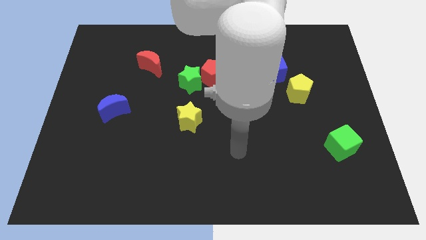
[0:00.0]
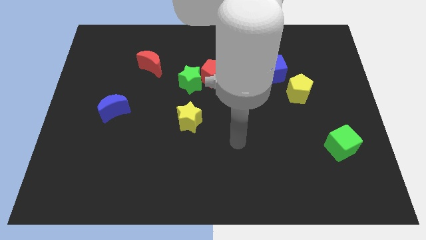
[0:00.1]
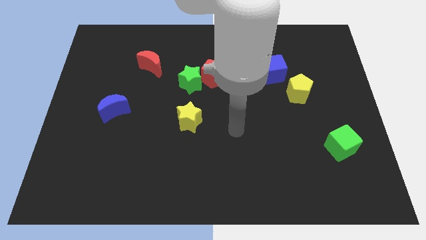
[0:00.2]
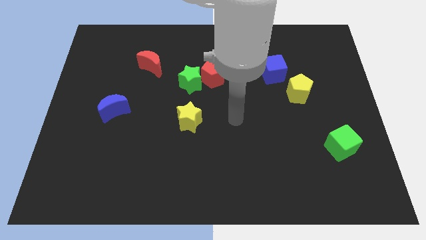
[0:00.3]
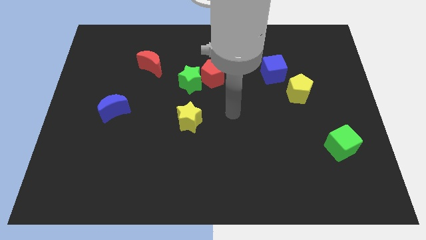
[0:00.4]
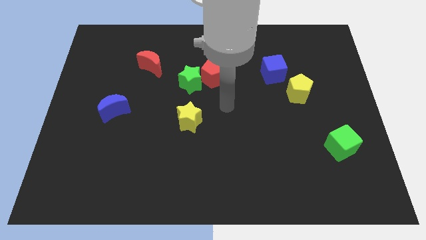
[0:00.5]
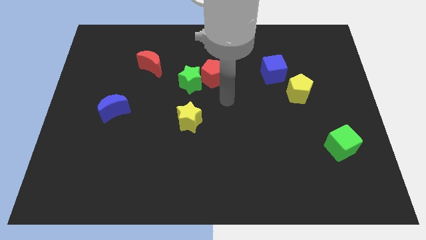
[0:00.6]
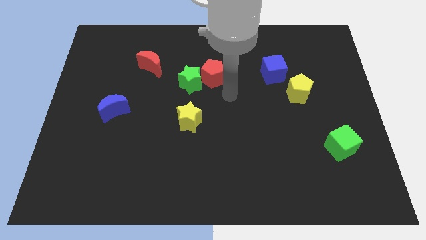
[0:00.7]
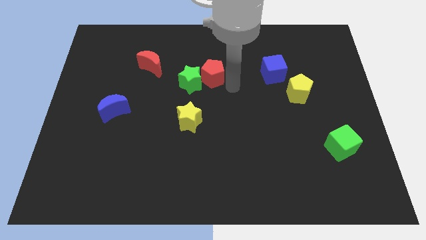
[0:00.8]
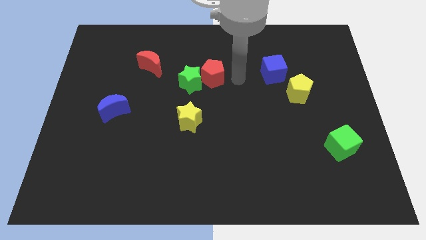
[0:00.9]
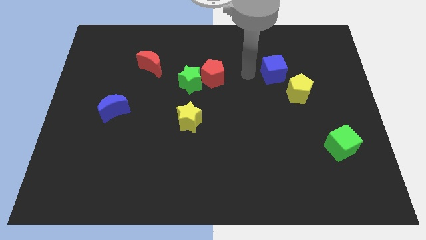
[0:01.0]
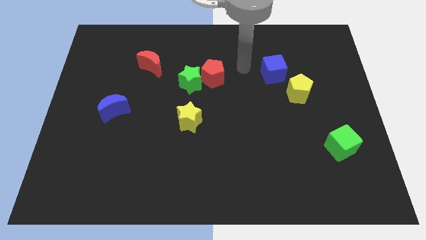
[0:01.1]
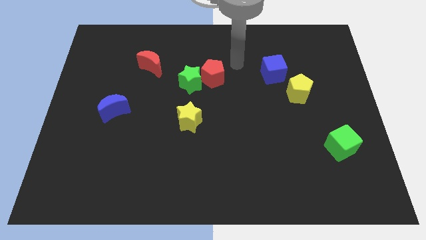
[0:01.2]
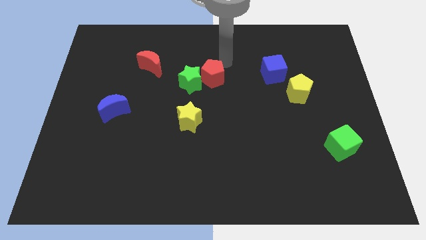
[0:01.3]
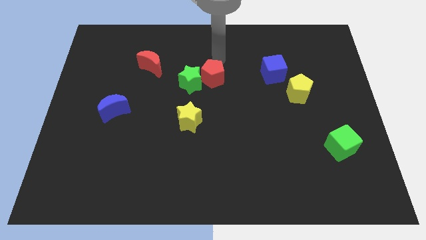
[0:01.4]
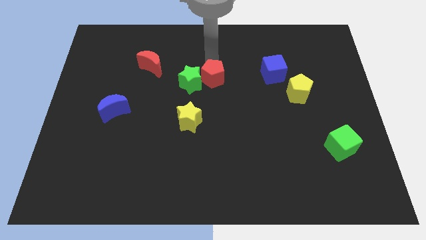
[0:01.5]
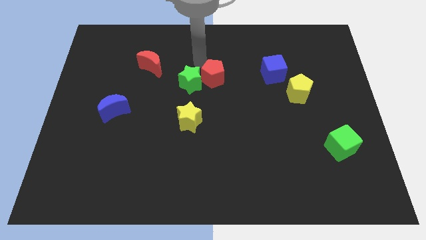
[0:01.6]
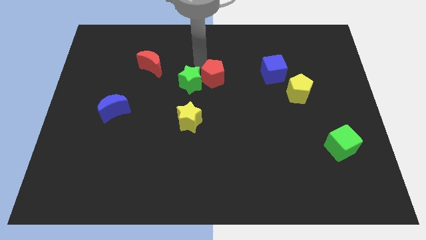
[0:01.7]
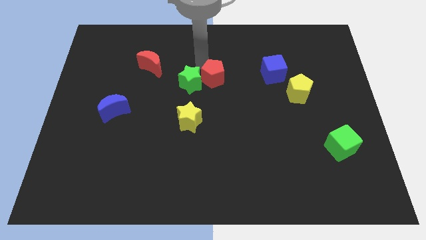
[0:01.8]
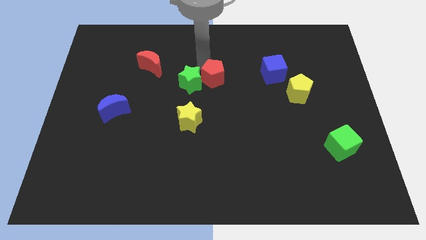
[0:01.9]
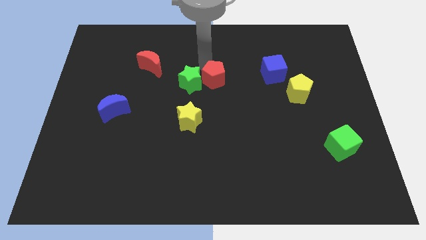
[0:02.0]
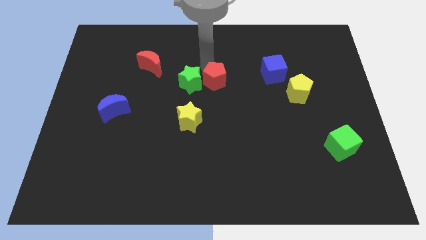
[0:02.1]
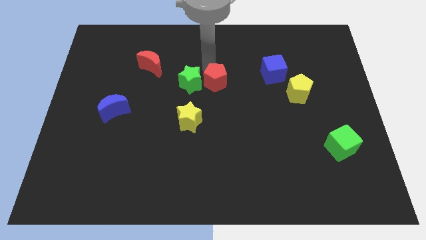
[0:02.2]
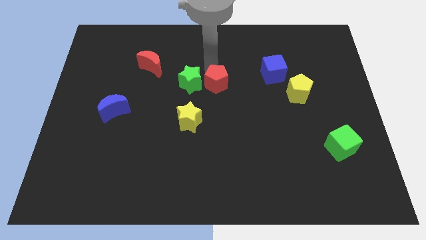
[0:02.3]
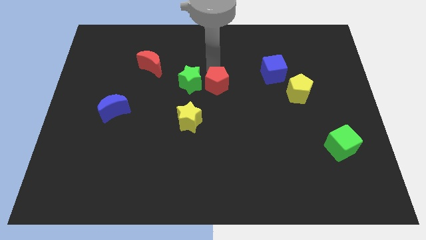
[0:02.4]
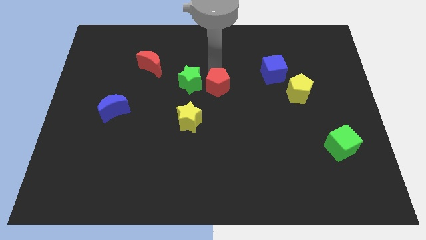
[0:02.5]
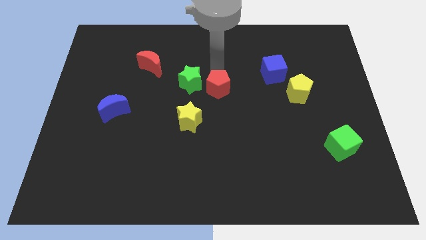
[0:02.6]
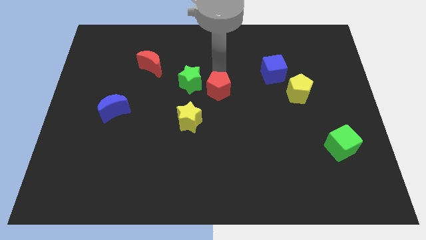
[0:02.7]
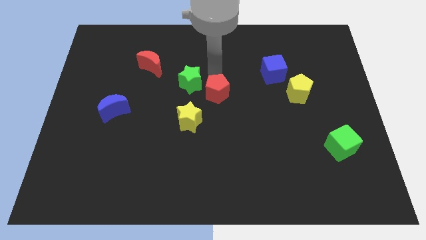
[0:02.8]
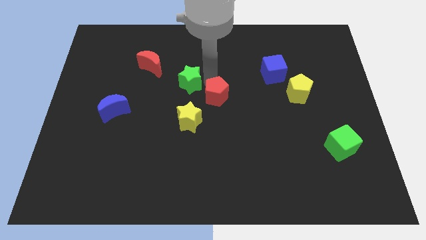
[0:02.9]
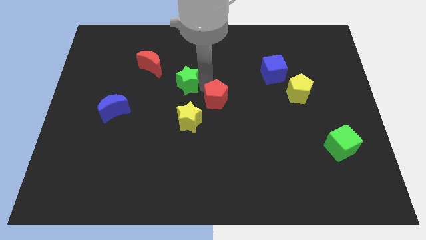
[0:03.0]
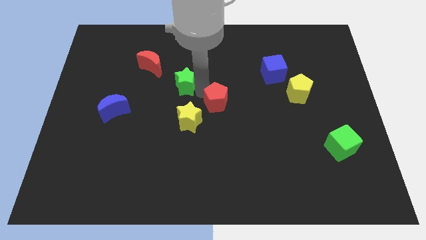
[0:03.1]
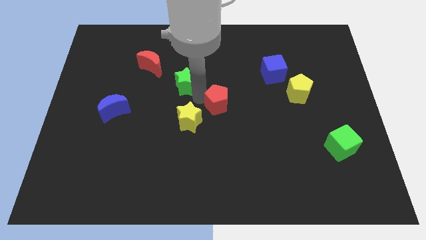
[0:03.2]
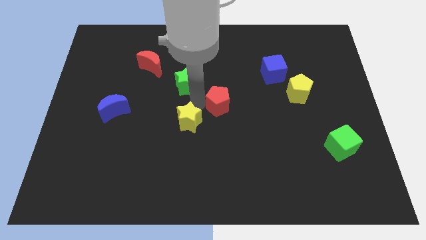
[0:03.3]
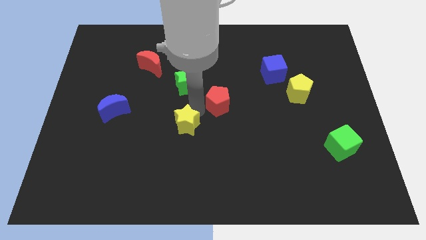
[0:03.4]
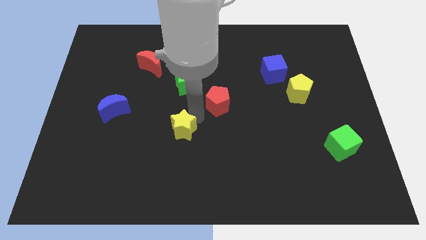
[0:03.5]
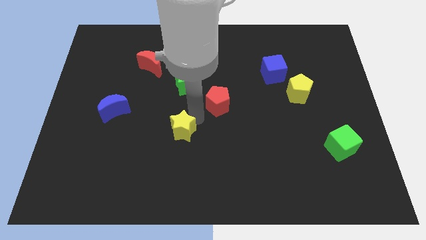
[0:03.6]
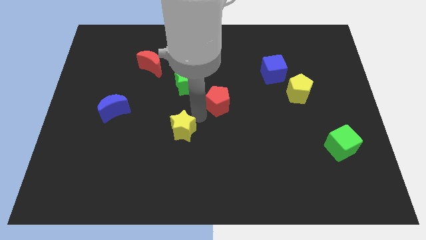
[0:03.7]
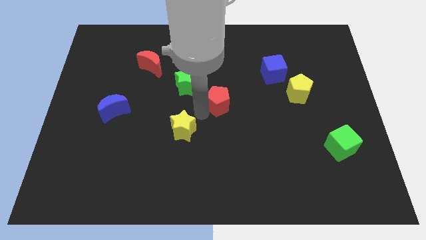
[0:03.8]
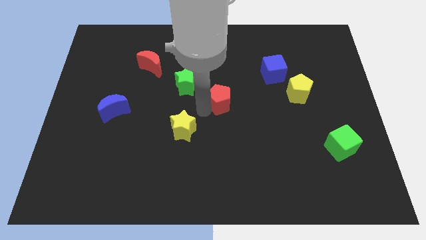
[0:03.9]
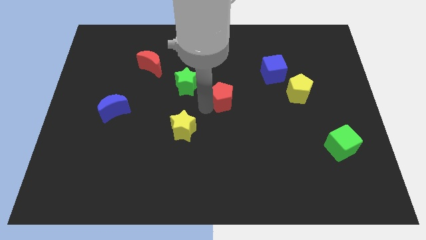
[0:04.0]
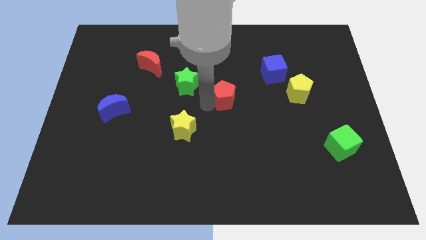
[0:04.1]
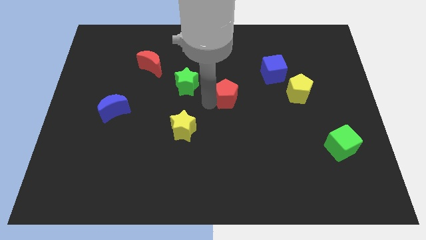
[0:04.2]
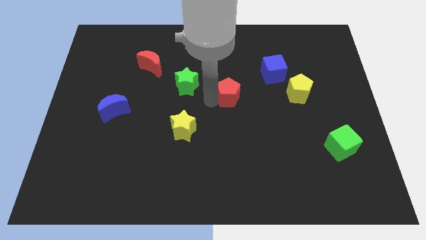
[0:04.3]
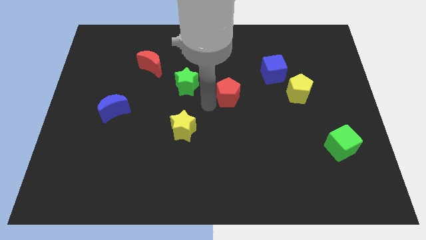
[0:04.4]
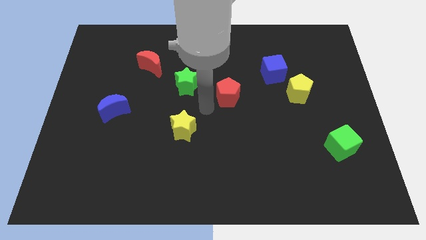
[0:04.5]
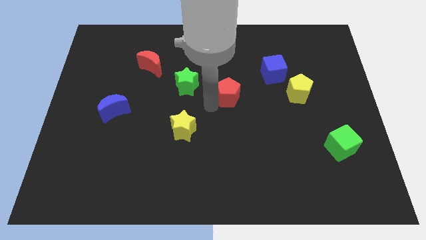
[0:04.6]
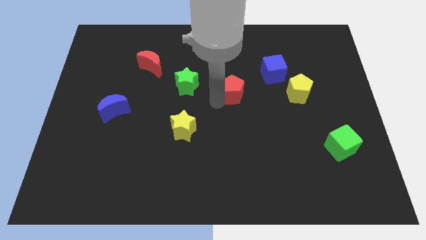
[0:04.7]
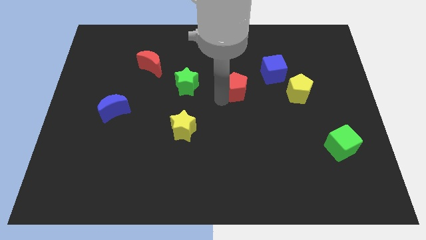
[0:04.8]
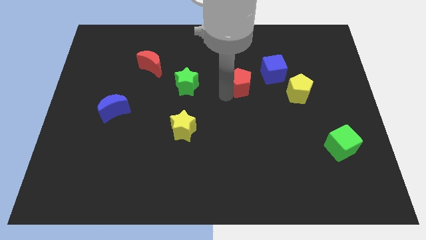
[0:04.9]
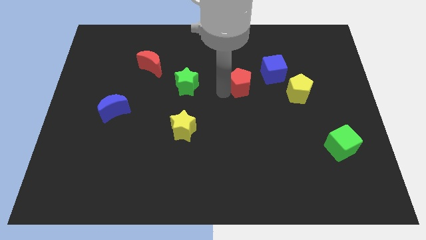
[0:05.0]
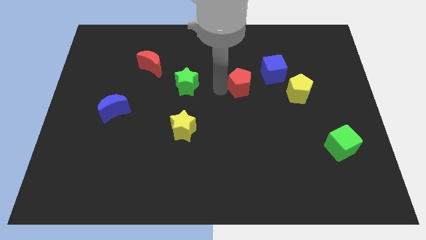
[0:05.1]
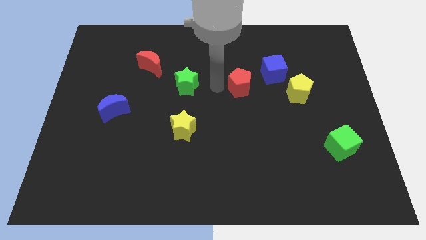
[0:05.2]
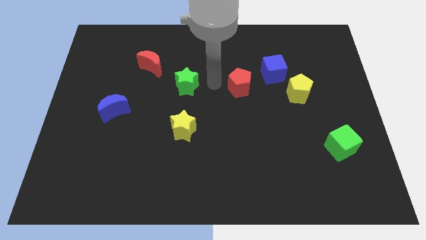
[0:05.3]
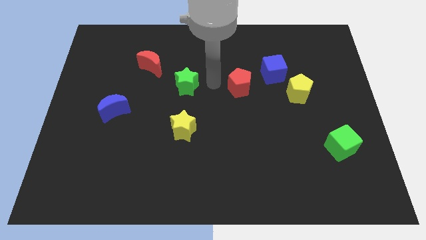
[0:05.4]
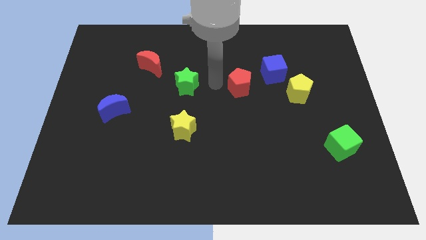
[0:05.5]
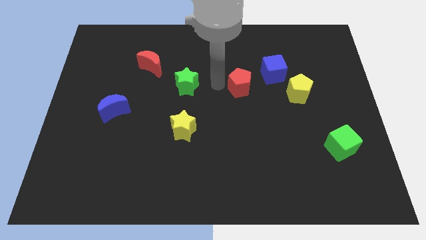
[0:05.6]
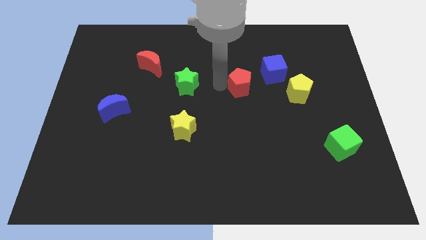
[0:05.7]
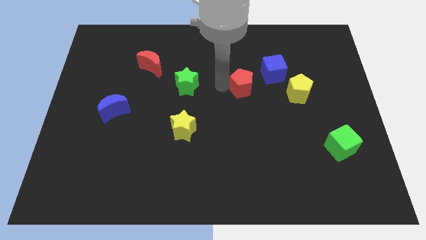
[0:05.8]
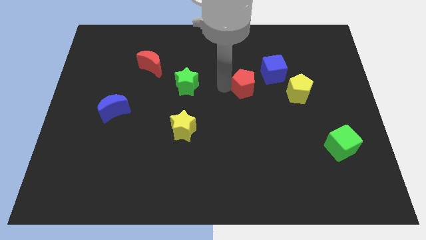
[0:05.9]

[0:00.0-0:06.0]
slightly move the red pentagon right

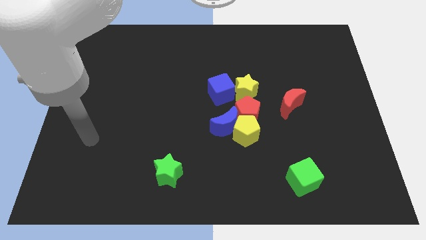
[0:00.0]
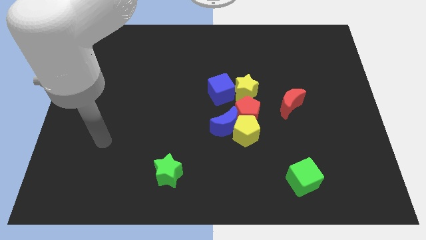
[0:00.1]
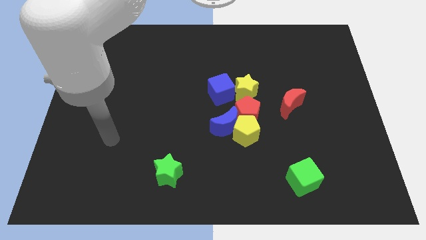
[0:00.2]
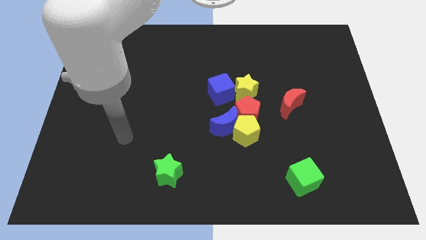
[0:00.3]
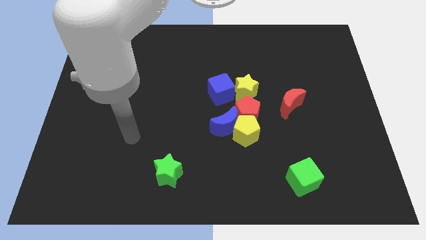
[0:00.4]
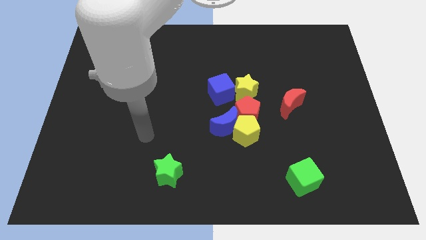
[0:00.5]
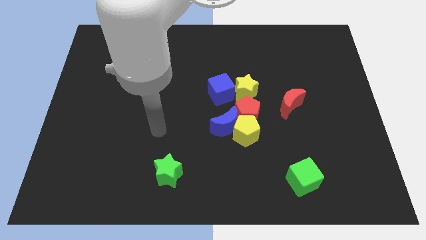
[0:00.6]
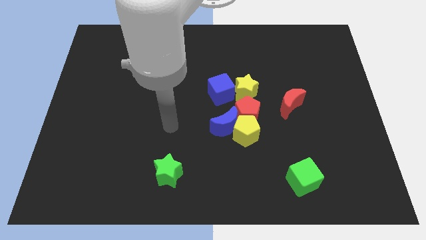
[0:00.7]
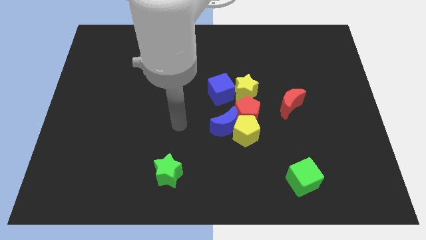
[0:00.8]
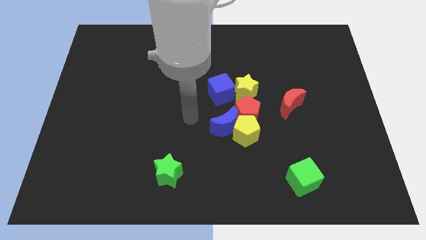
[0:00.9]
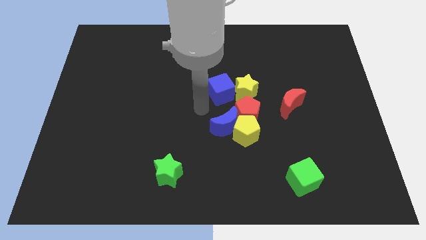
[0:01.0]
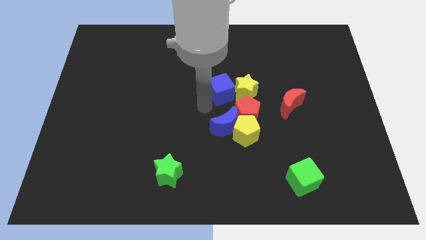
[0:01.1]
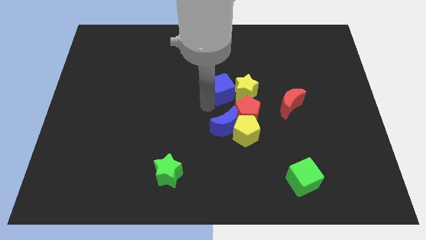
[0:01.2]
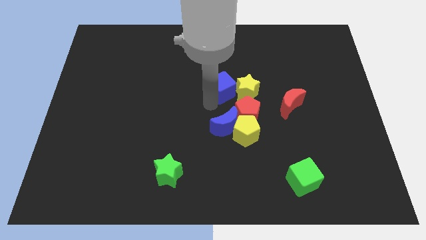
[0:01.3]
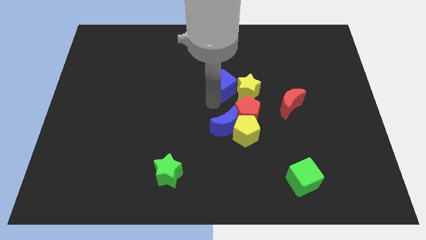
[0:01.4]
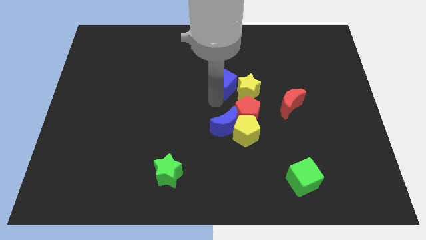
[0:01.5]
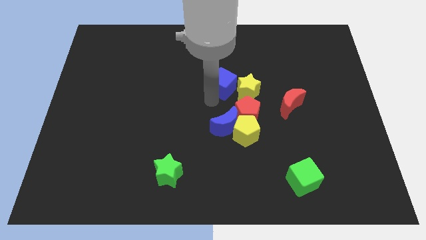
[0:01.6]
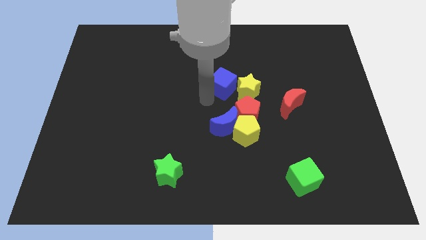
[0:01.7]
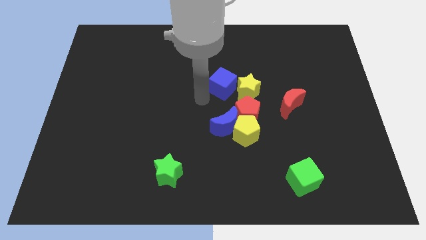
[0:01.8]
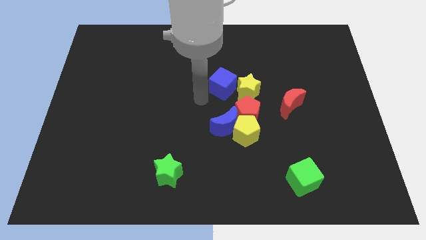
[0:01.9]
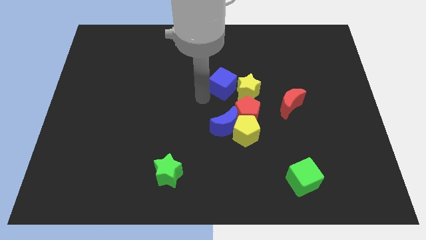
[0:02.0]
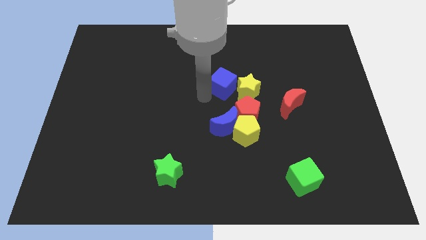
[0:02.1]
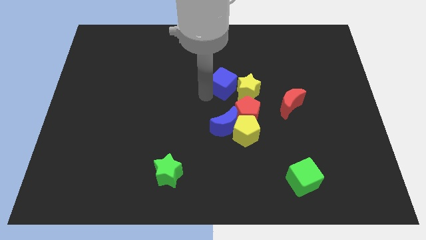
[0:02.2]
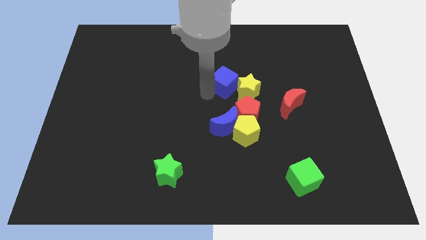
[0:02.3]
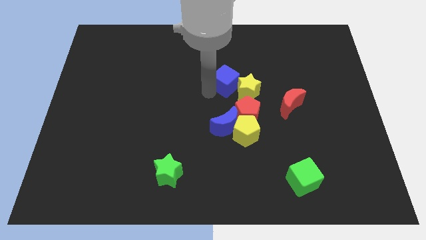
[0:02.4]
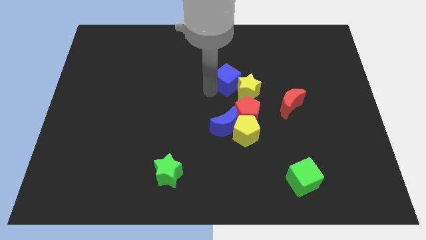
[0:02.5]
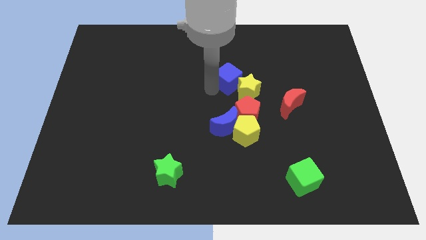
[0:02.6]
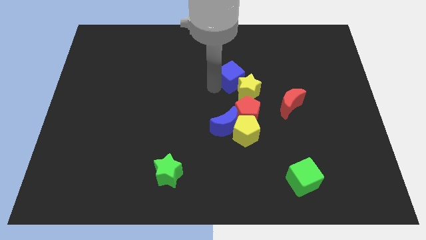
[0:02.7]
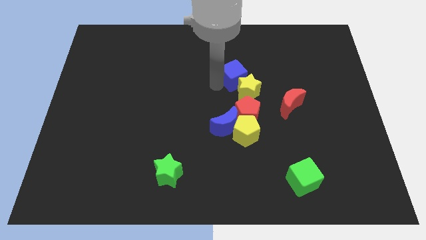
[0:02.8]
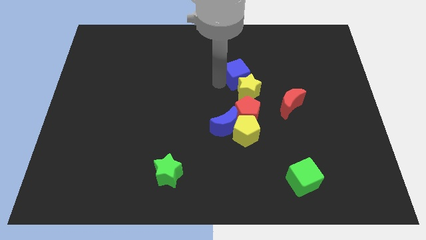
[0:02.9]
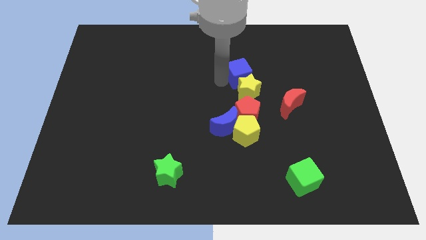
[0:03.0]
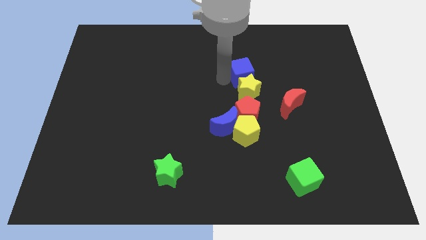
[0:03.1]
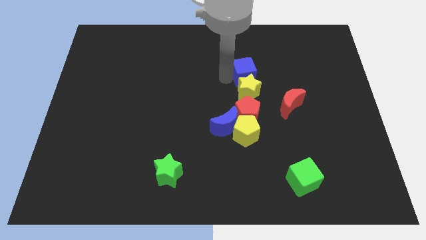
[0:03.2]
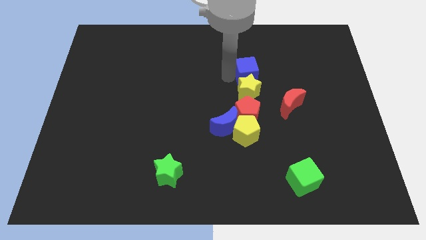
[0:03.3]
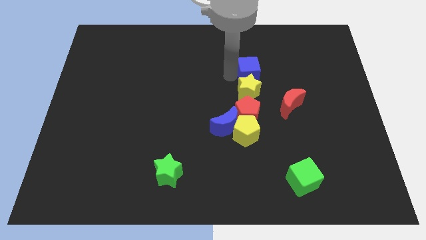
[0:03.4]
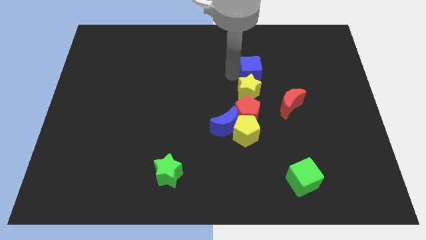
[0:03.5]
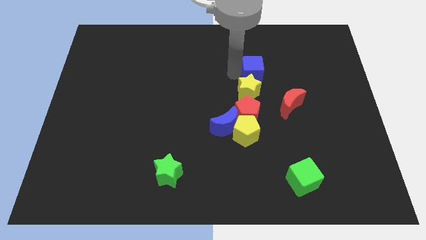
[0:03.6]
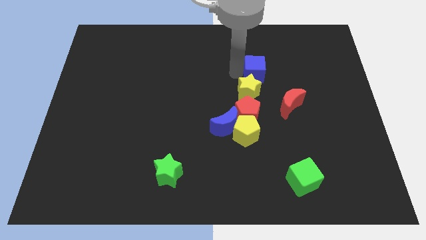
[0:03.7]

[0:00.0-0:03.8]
slightly move the blue cube right
